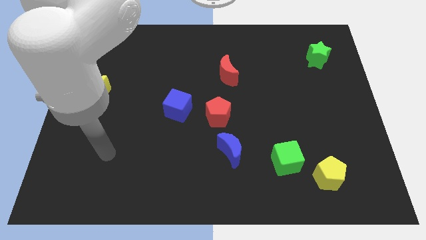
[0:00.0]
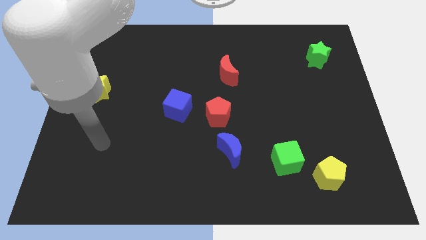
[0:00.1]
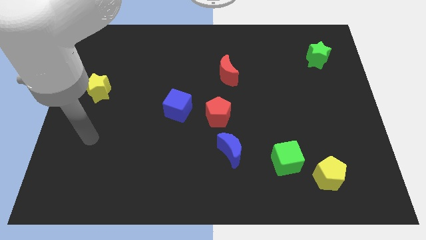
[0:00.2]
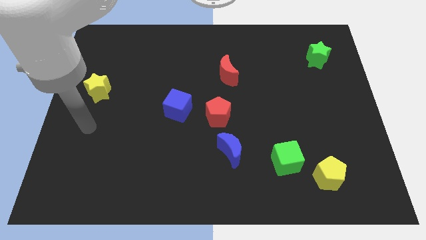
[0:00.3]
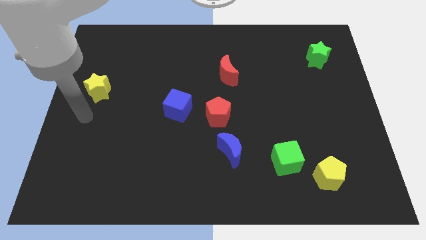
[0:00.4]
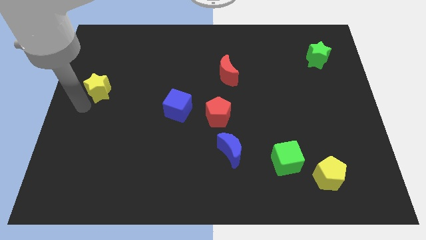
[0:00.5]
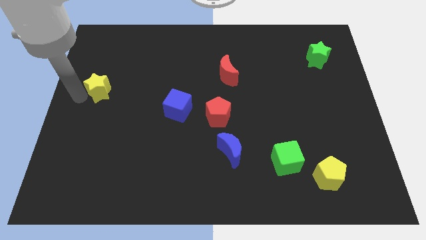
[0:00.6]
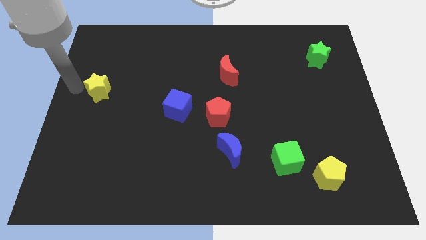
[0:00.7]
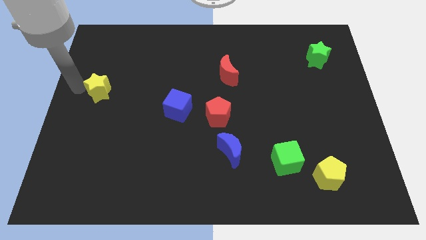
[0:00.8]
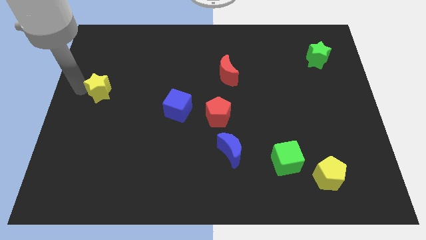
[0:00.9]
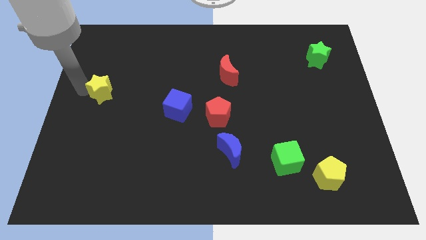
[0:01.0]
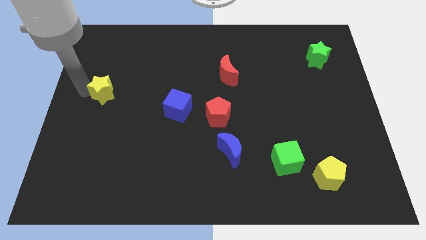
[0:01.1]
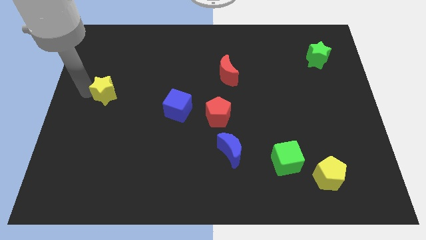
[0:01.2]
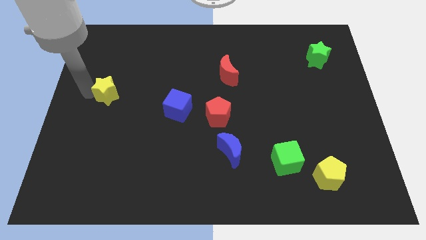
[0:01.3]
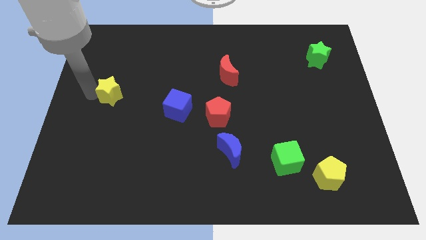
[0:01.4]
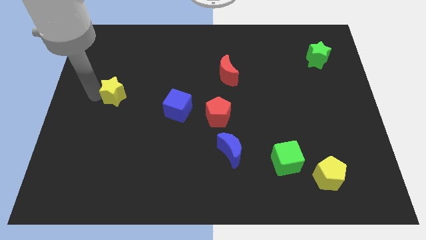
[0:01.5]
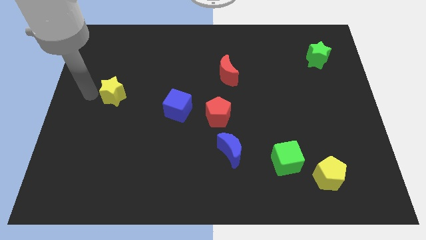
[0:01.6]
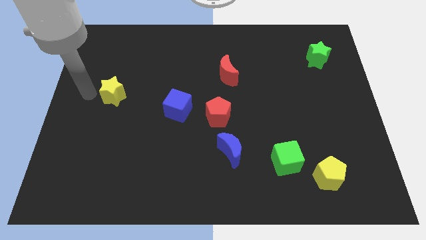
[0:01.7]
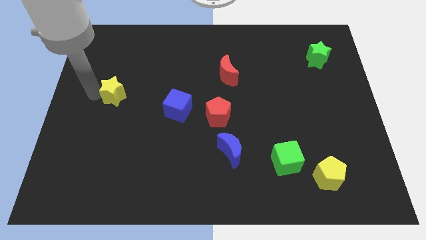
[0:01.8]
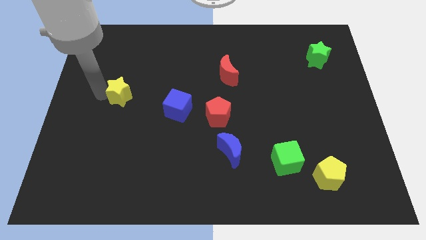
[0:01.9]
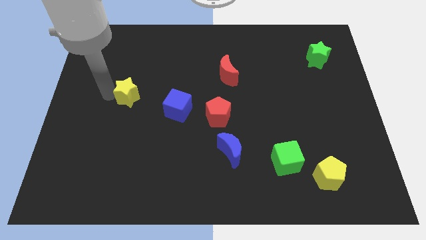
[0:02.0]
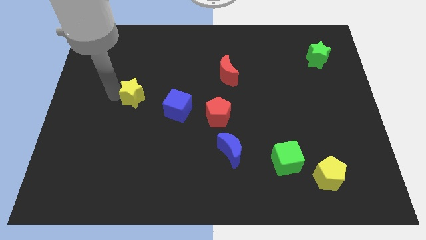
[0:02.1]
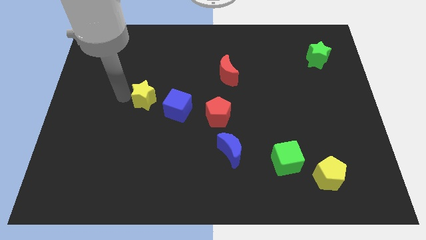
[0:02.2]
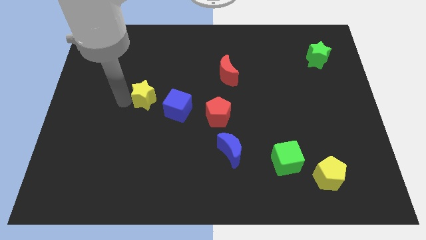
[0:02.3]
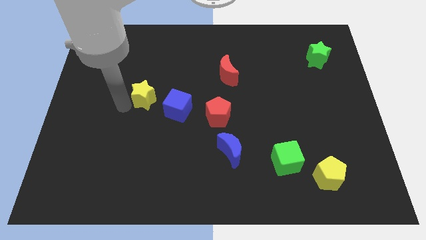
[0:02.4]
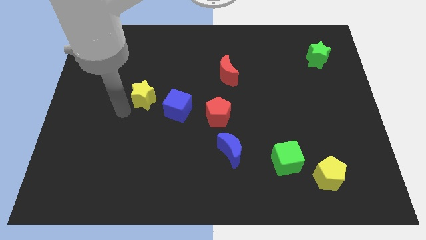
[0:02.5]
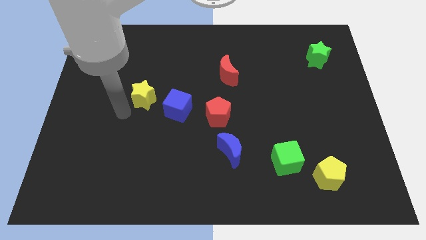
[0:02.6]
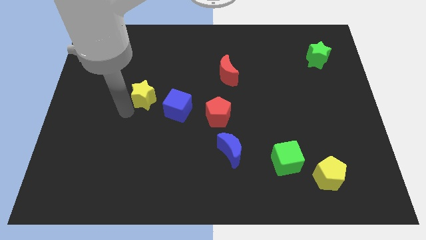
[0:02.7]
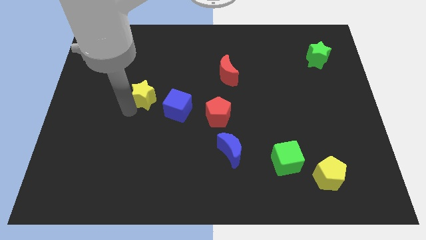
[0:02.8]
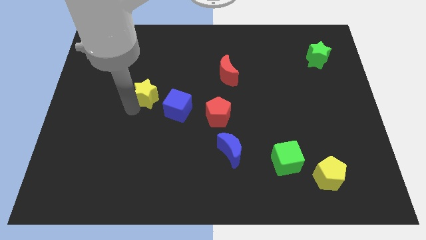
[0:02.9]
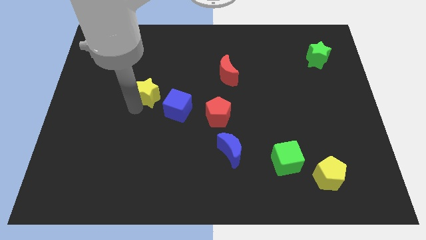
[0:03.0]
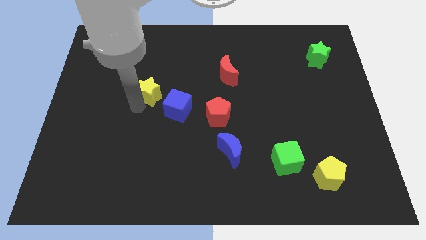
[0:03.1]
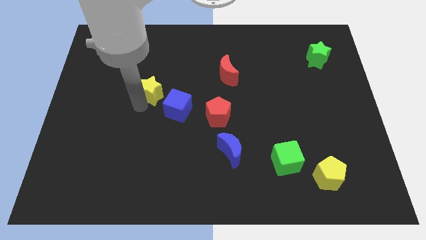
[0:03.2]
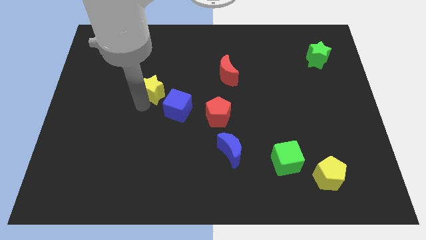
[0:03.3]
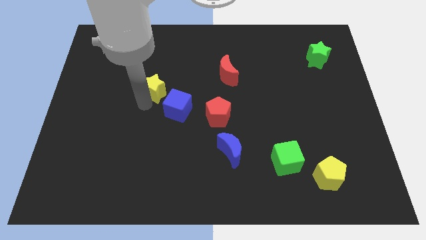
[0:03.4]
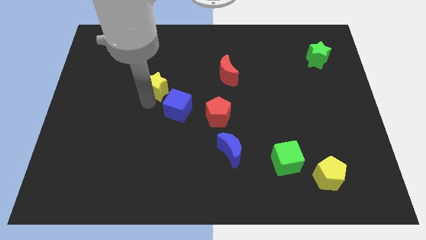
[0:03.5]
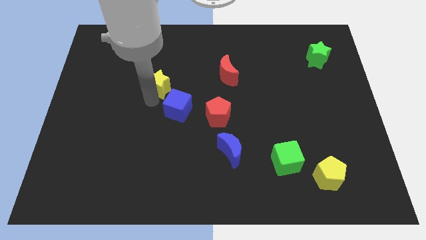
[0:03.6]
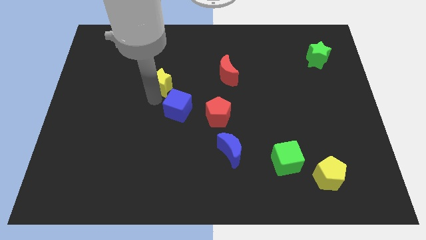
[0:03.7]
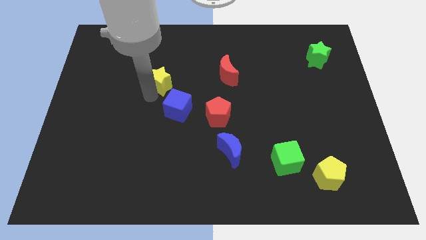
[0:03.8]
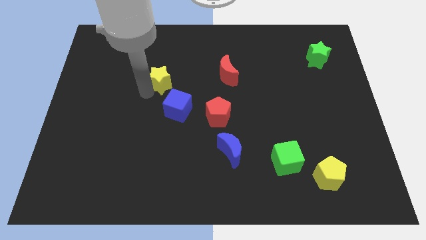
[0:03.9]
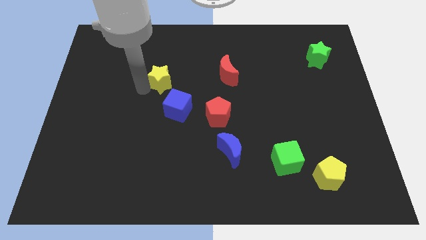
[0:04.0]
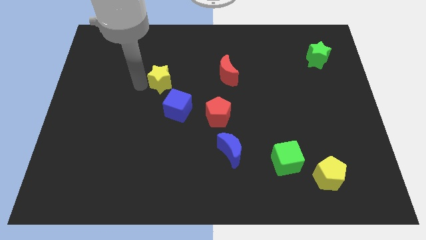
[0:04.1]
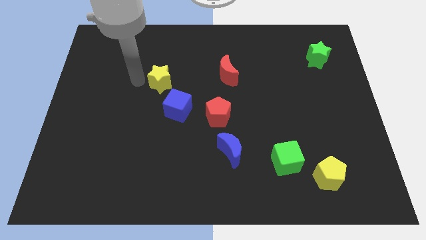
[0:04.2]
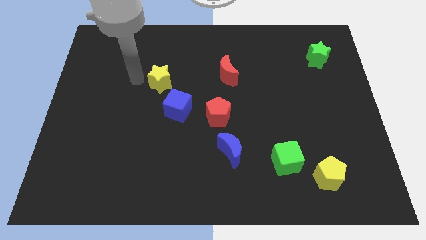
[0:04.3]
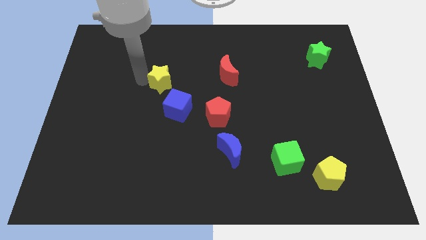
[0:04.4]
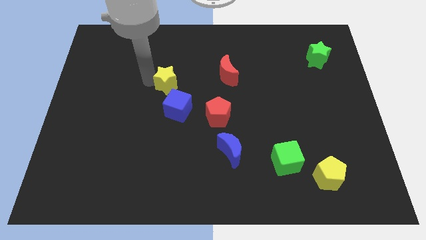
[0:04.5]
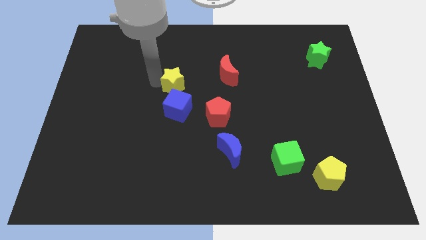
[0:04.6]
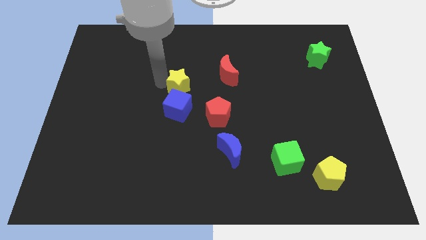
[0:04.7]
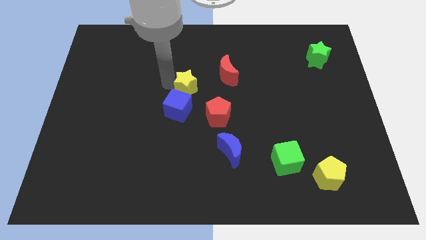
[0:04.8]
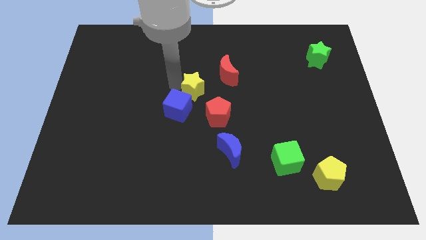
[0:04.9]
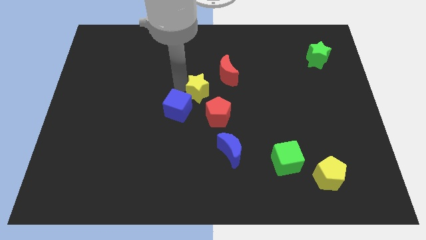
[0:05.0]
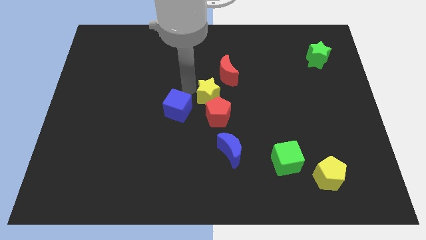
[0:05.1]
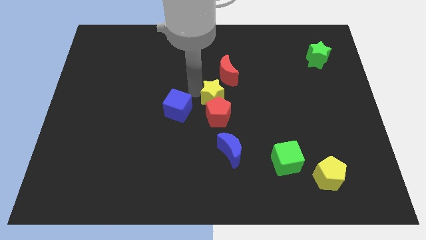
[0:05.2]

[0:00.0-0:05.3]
put the yellow star diagonally up and to the right of the red pentagon
